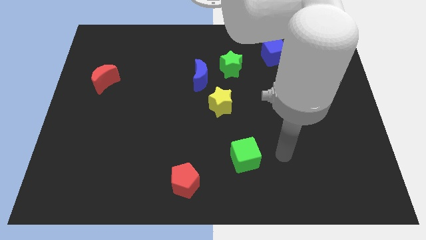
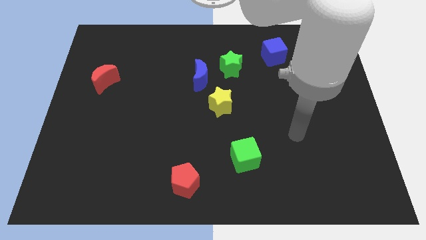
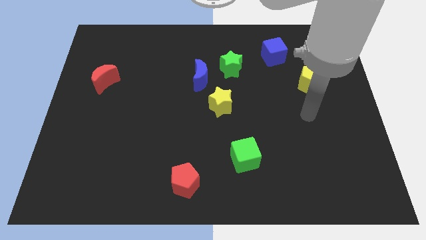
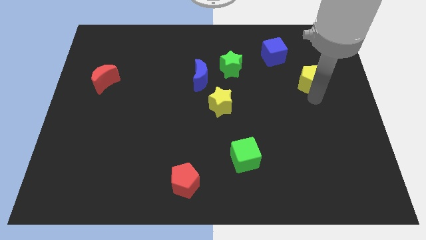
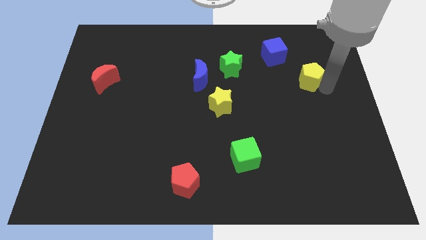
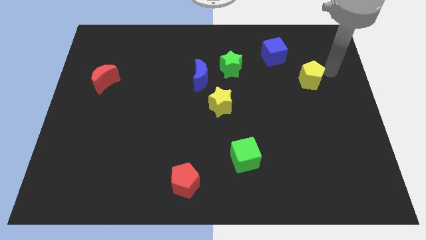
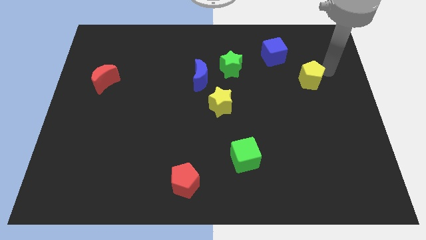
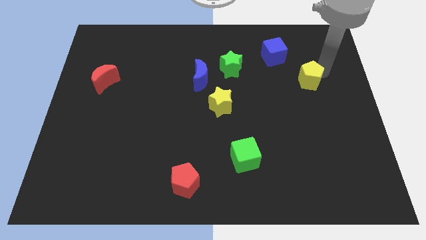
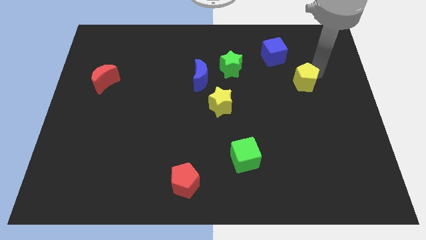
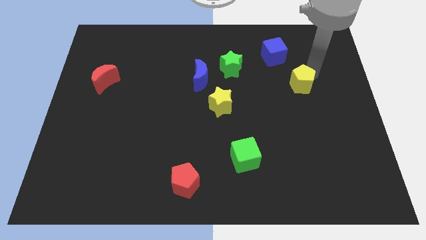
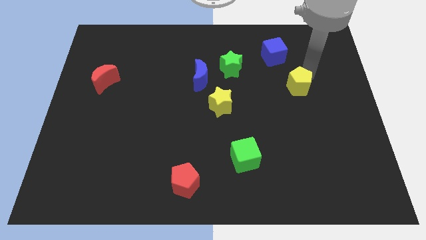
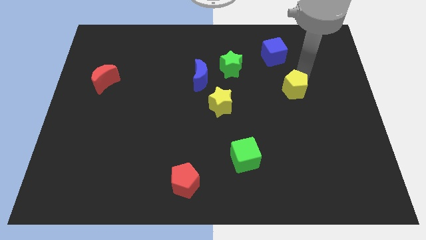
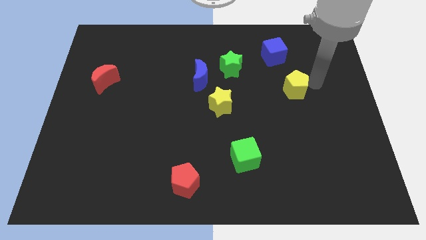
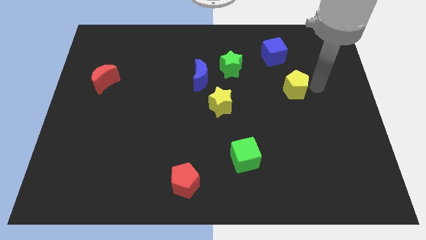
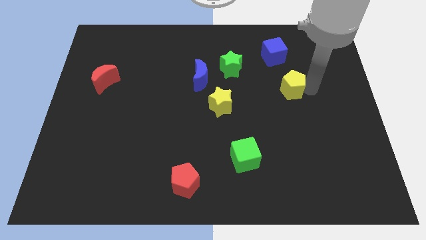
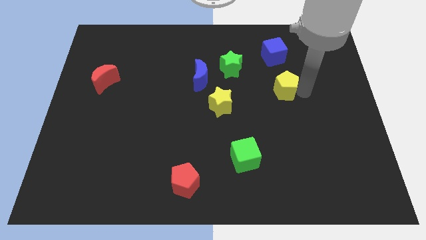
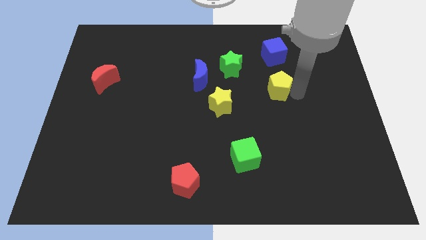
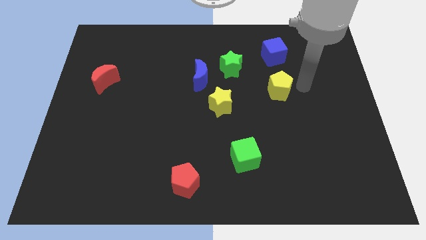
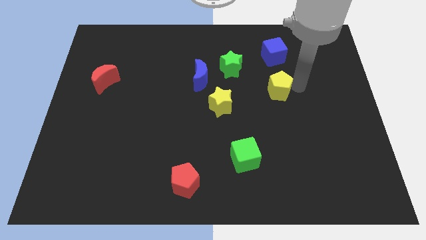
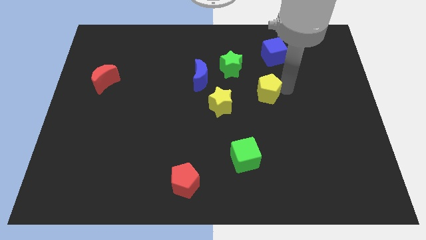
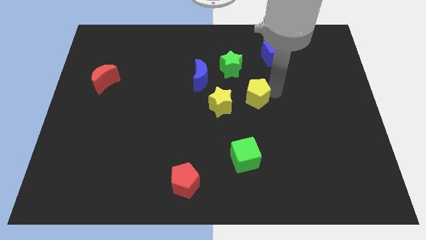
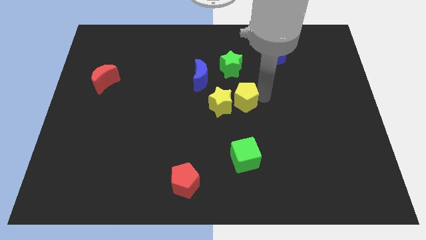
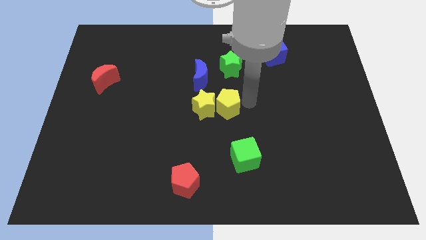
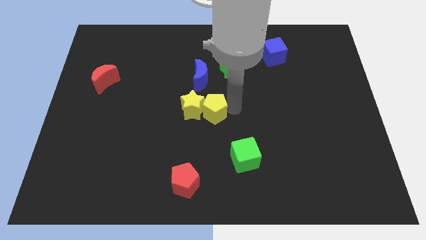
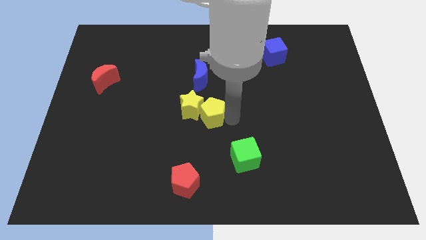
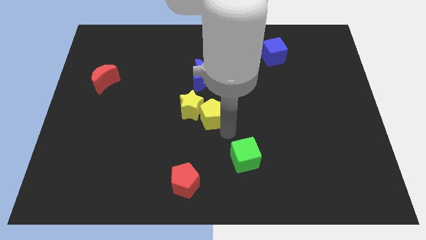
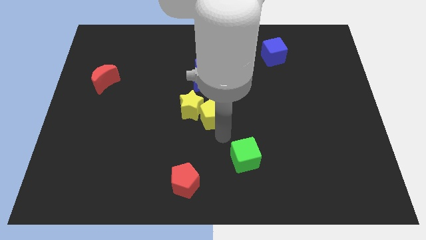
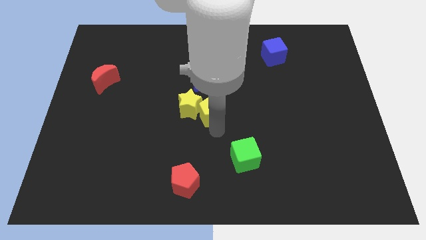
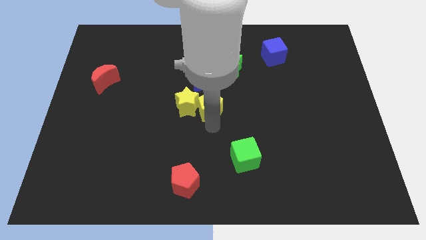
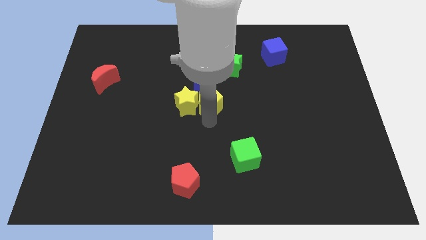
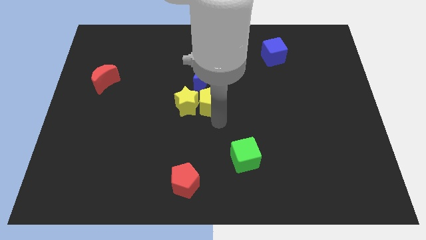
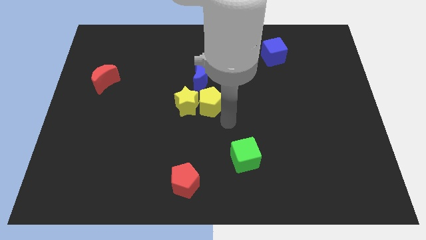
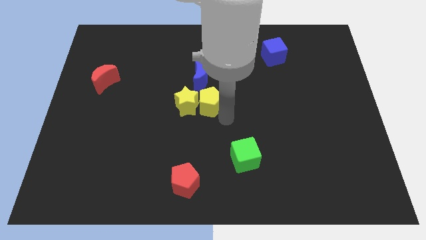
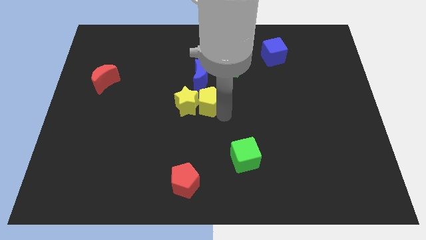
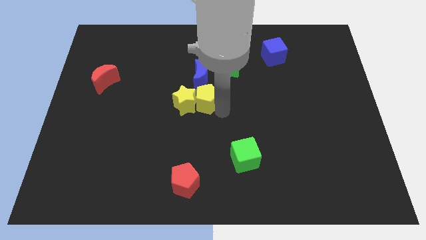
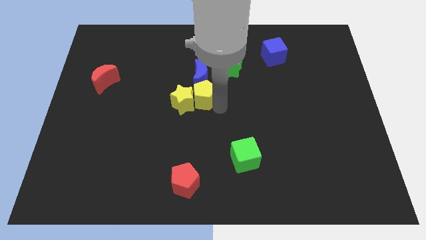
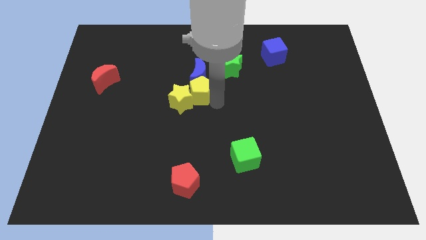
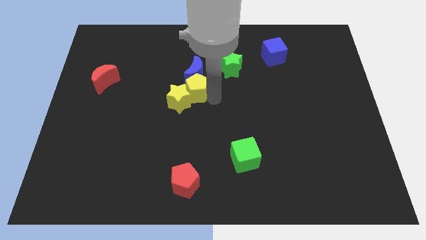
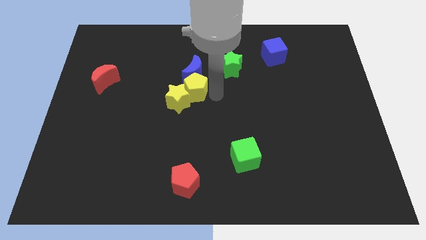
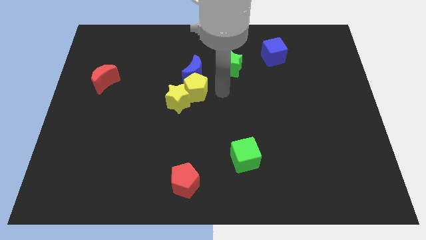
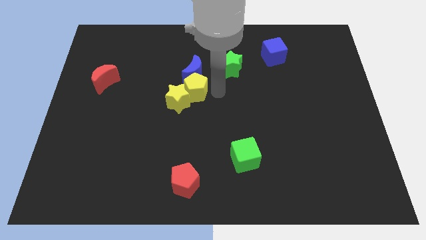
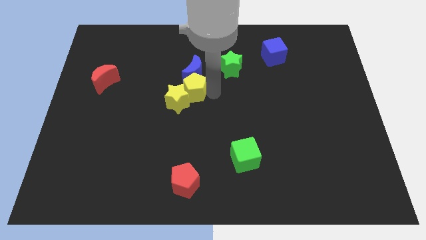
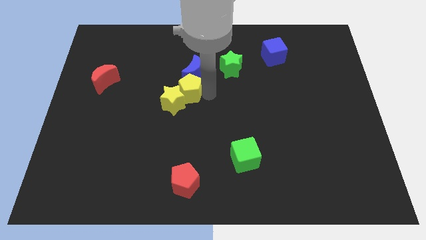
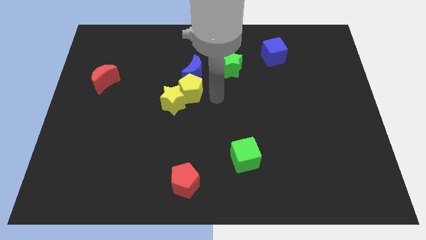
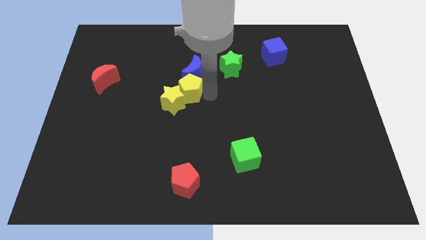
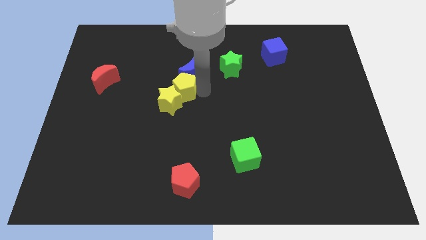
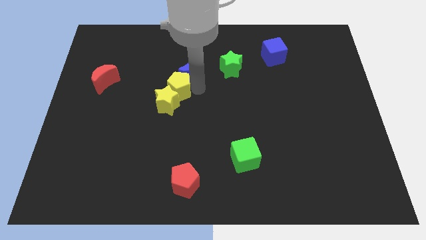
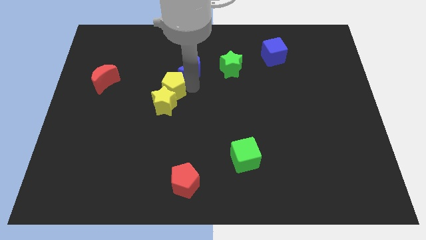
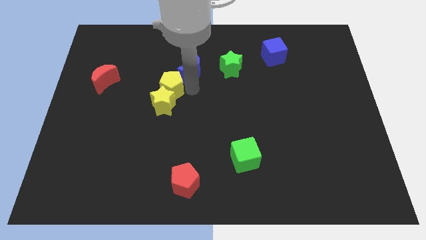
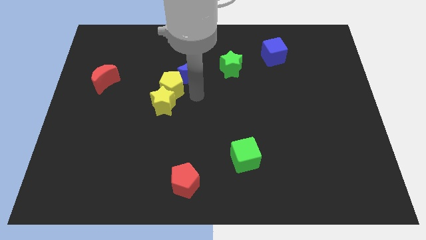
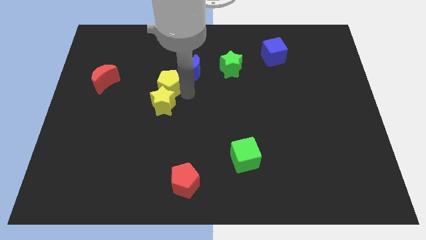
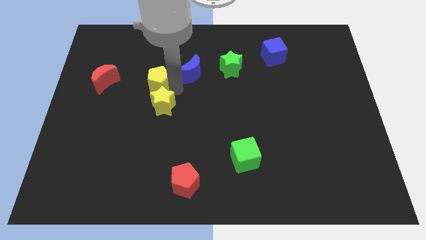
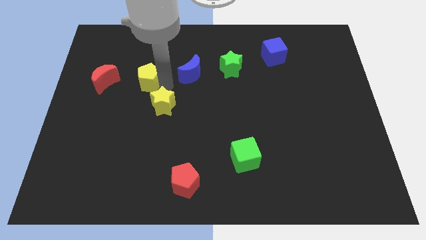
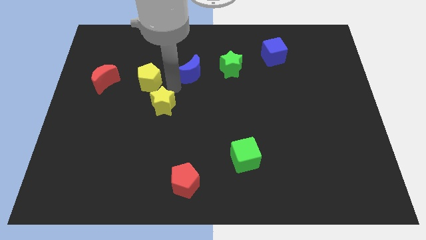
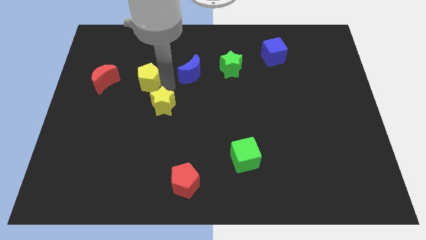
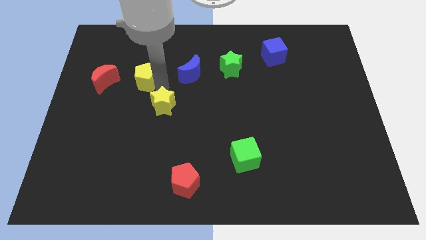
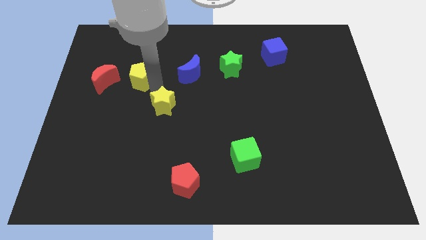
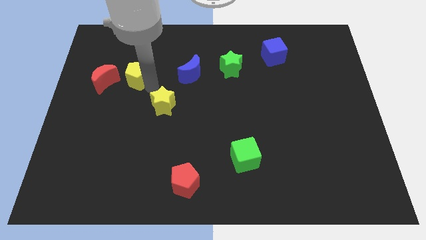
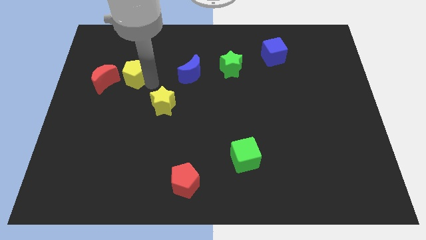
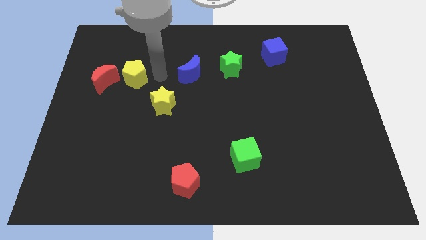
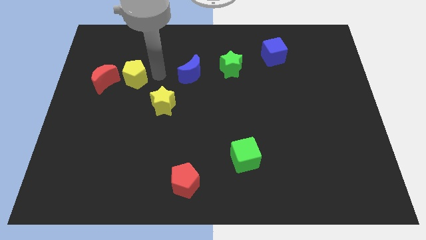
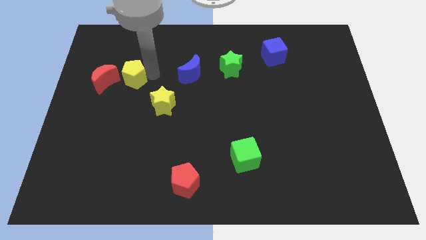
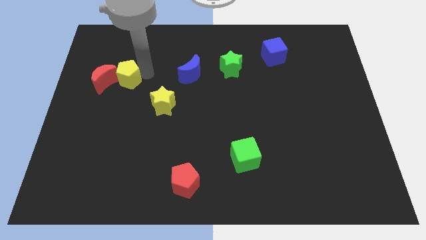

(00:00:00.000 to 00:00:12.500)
put the yellow pentagon towards the red moon

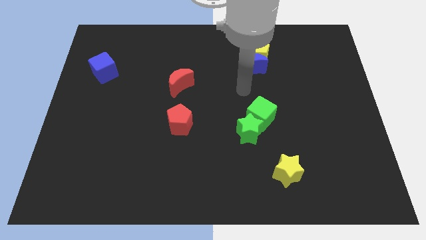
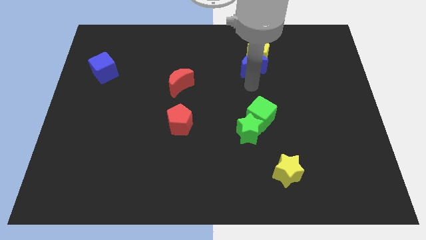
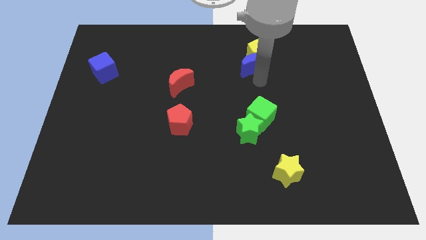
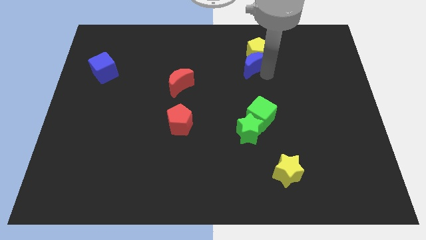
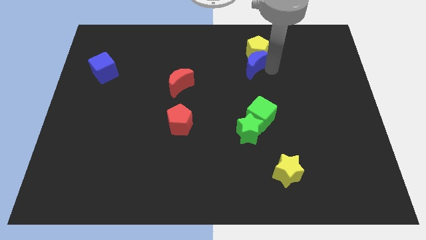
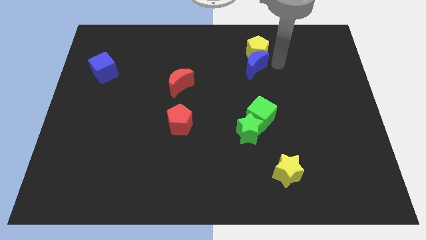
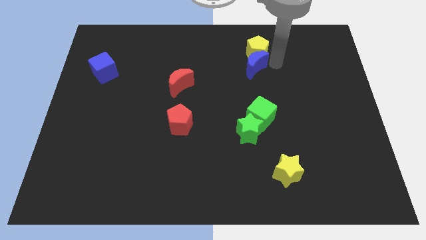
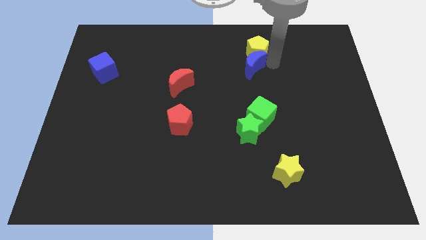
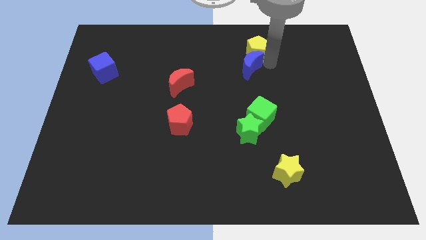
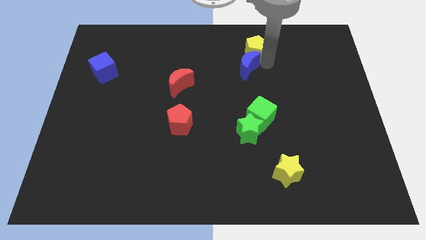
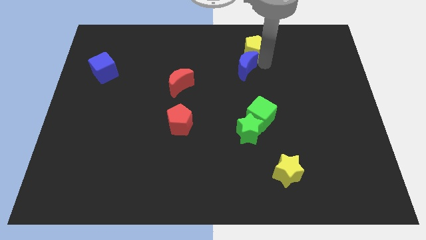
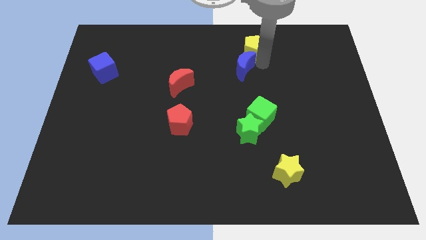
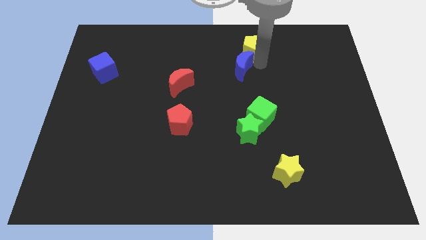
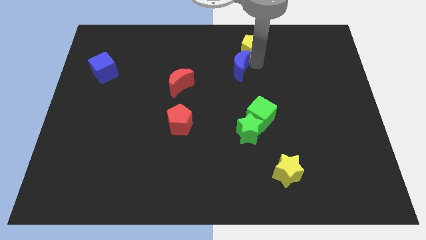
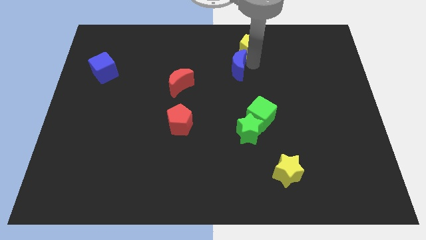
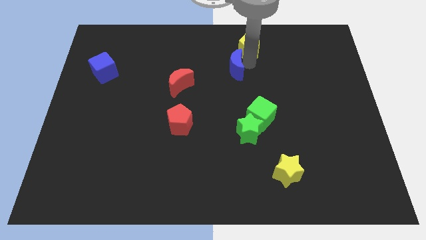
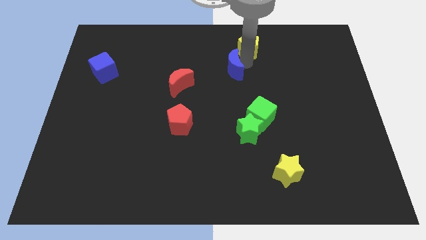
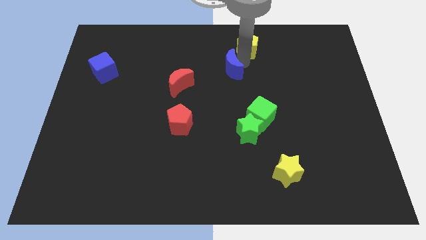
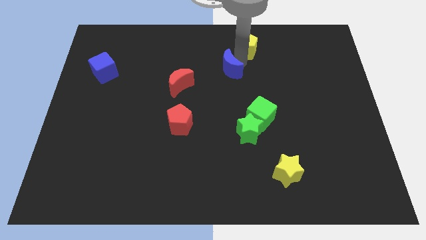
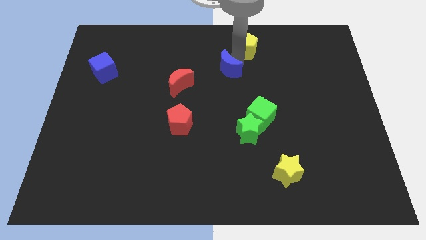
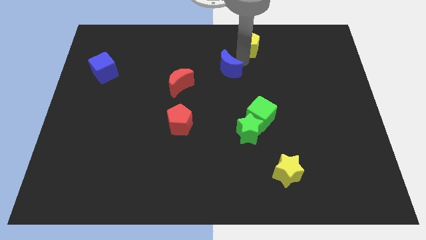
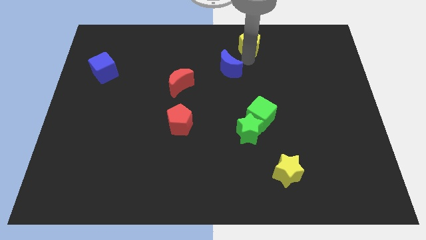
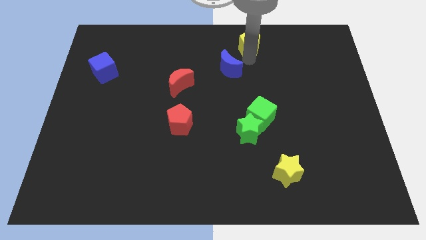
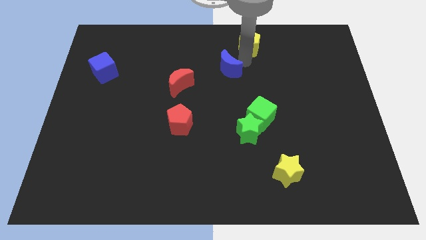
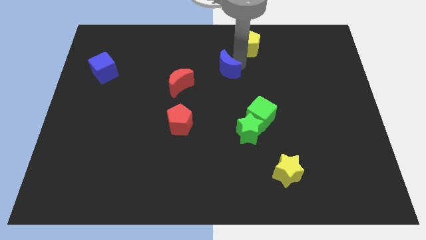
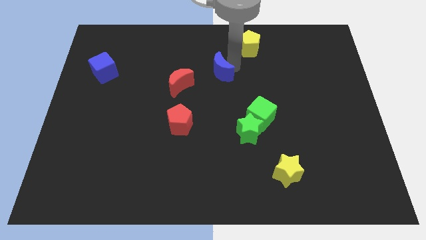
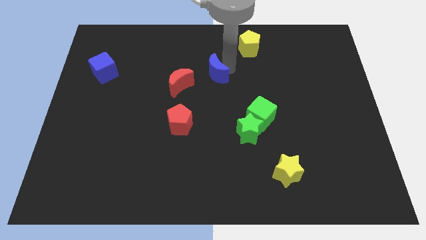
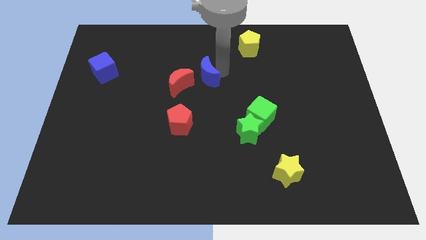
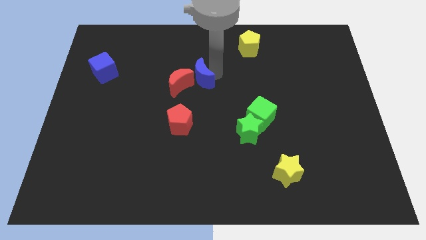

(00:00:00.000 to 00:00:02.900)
slide the blue moon close to the red moon
